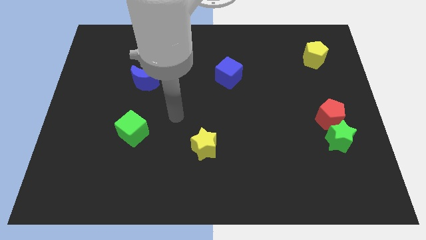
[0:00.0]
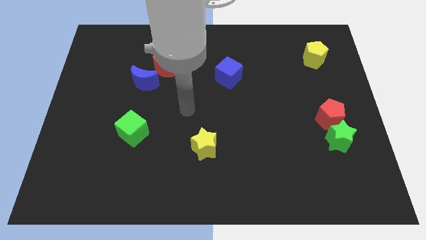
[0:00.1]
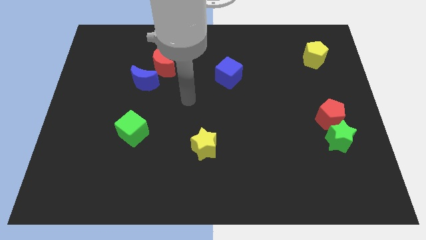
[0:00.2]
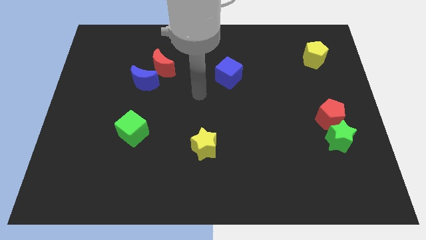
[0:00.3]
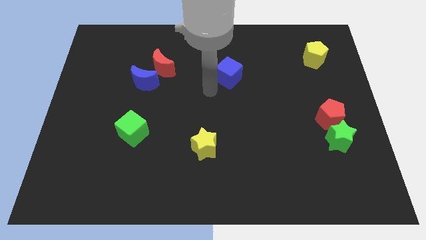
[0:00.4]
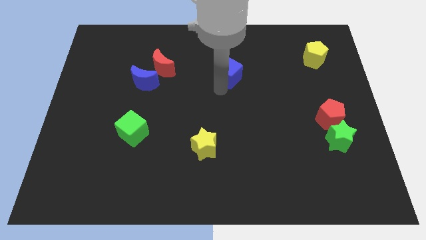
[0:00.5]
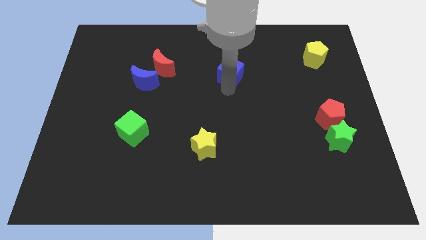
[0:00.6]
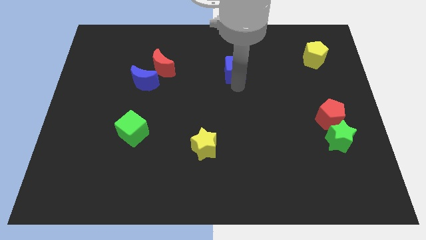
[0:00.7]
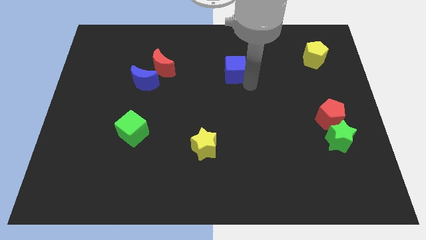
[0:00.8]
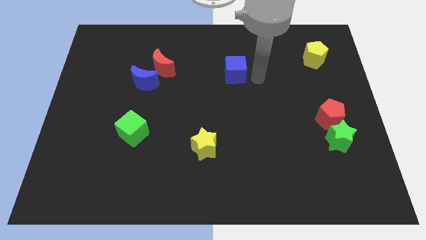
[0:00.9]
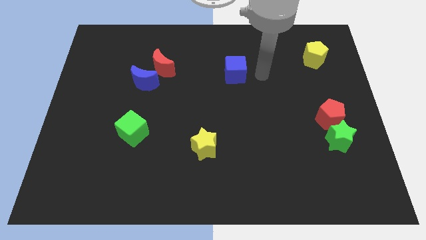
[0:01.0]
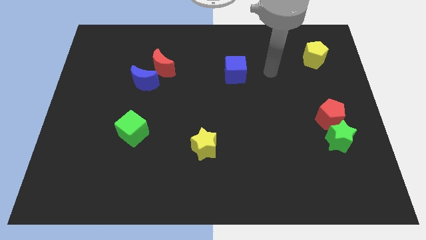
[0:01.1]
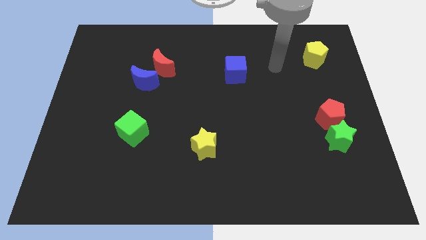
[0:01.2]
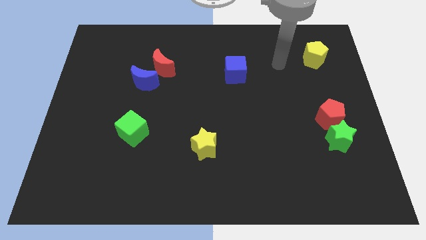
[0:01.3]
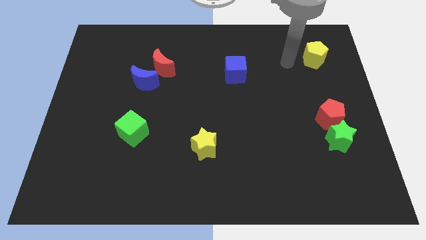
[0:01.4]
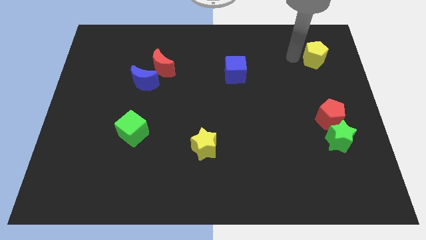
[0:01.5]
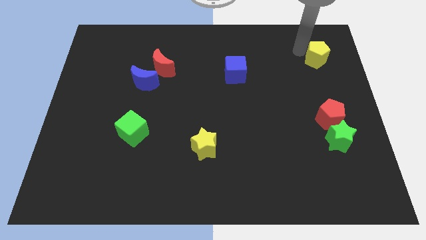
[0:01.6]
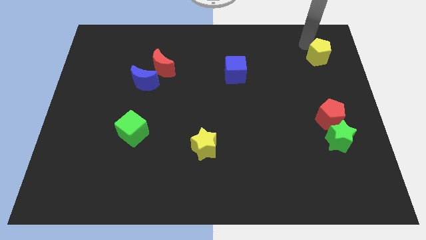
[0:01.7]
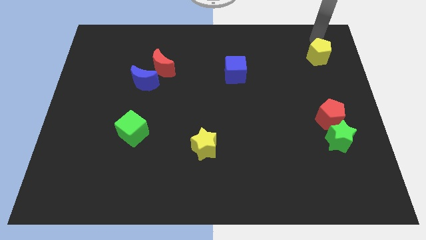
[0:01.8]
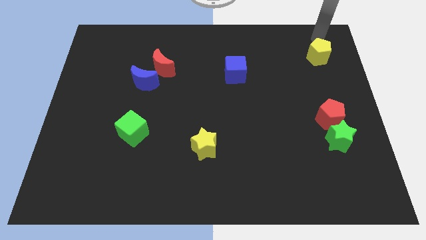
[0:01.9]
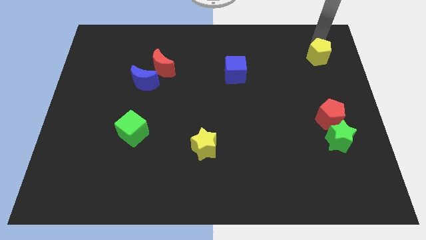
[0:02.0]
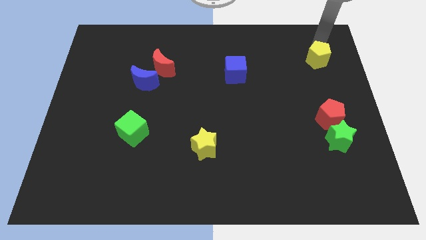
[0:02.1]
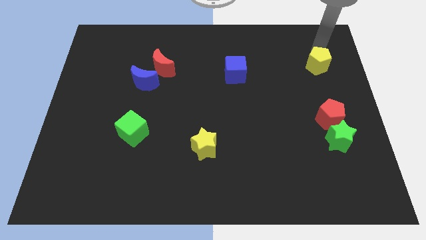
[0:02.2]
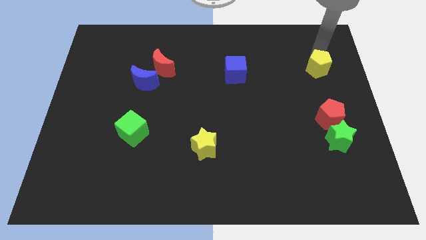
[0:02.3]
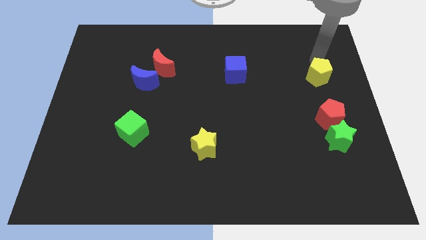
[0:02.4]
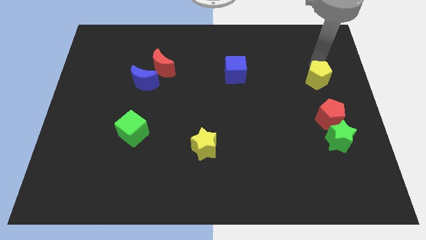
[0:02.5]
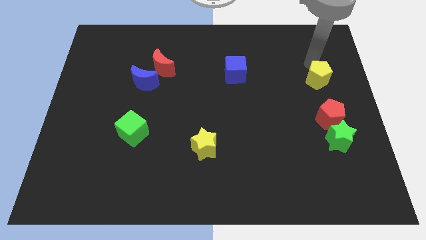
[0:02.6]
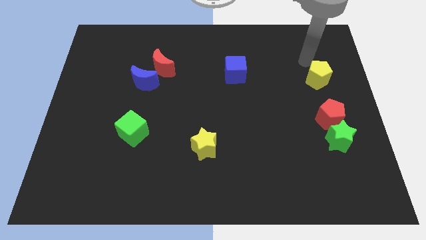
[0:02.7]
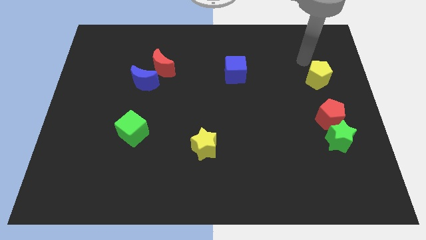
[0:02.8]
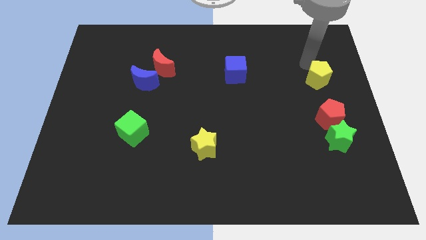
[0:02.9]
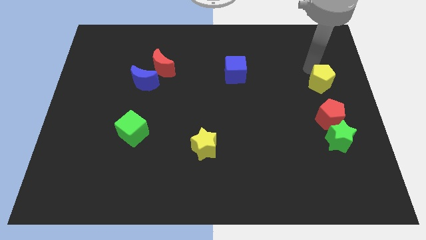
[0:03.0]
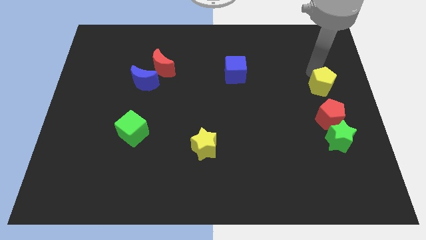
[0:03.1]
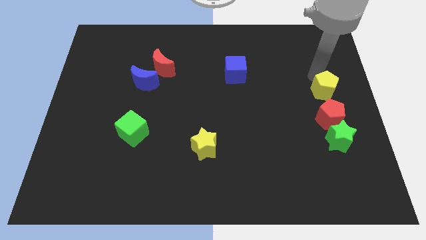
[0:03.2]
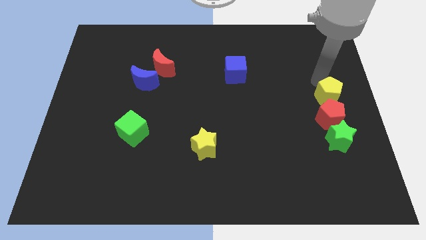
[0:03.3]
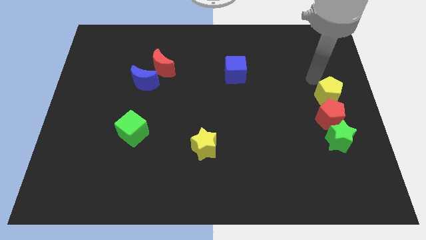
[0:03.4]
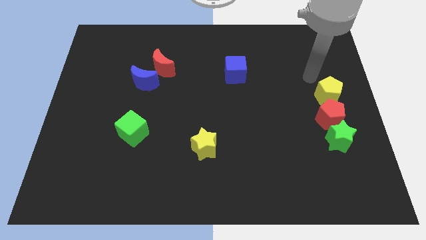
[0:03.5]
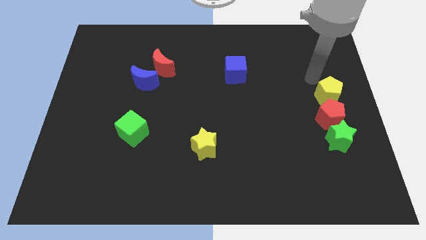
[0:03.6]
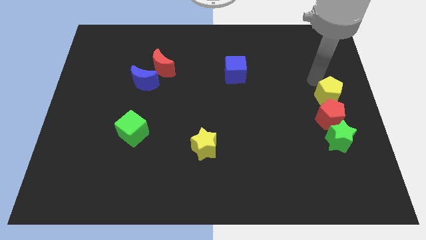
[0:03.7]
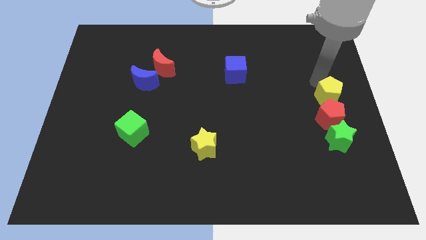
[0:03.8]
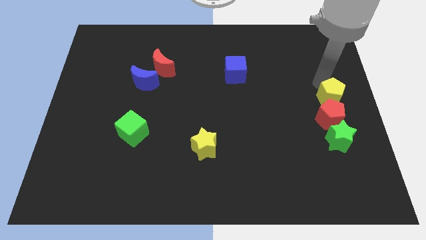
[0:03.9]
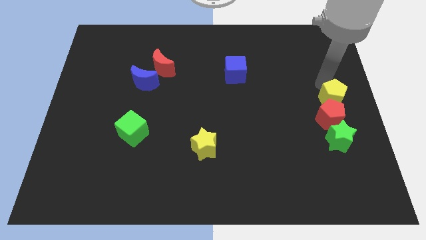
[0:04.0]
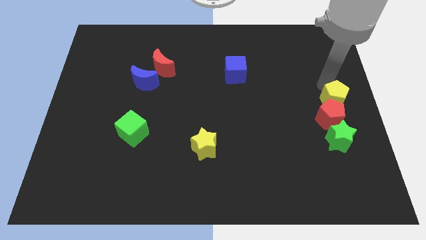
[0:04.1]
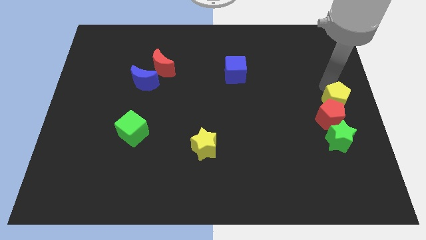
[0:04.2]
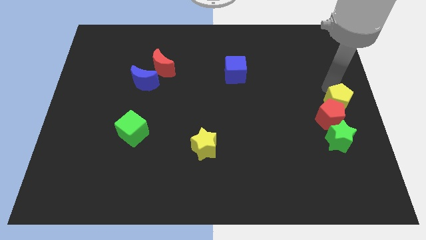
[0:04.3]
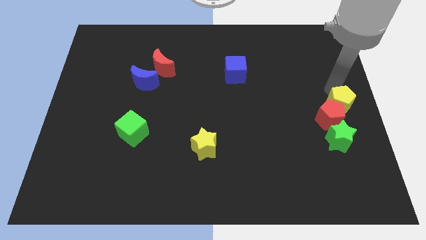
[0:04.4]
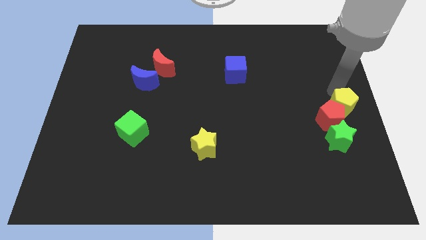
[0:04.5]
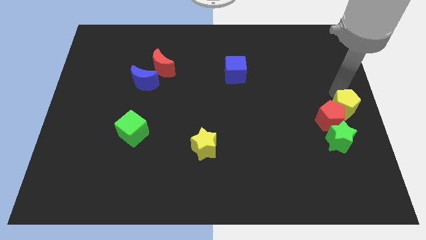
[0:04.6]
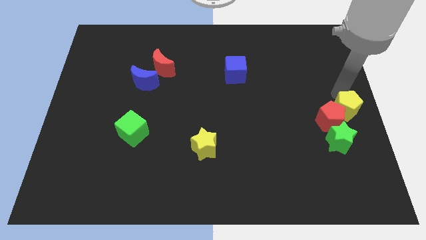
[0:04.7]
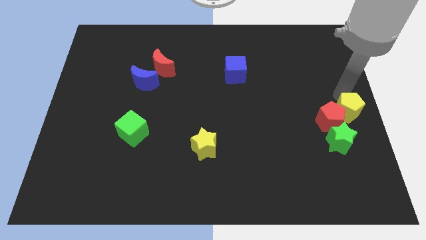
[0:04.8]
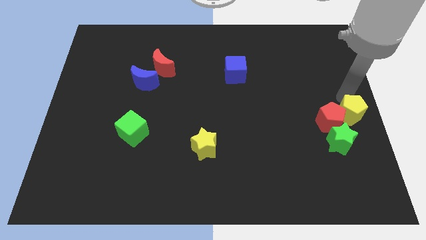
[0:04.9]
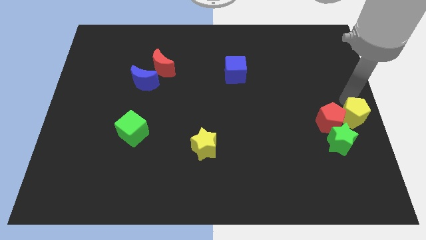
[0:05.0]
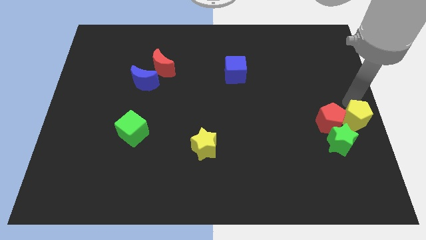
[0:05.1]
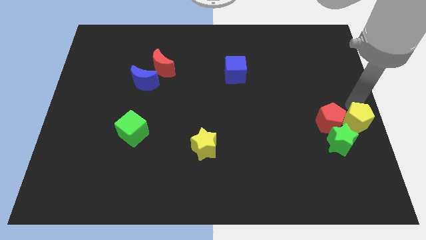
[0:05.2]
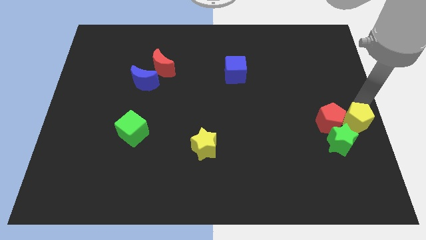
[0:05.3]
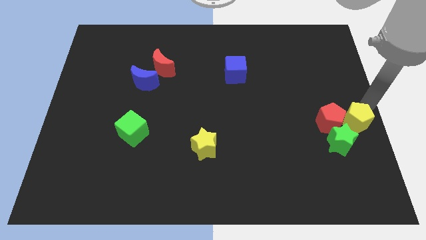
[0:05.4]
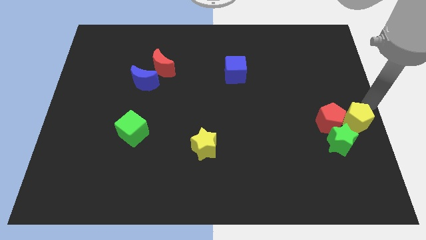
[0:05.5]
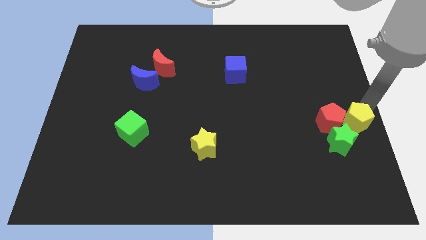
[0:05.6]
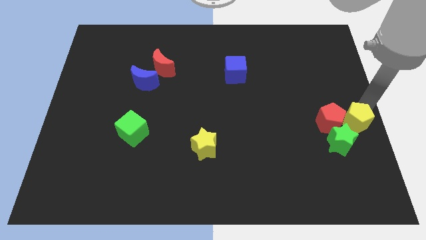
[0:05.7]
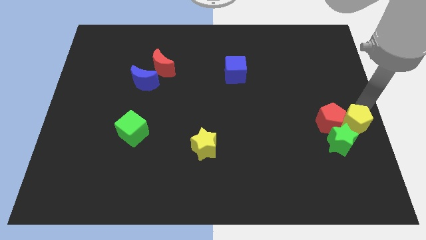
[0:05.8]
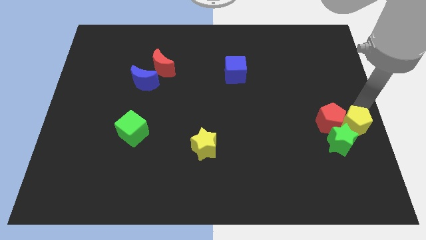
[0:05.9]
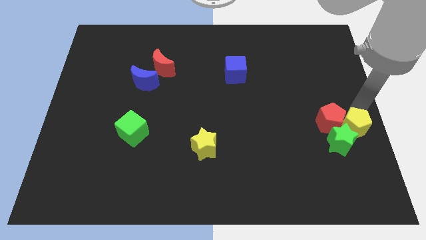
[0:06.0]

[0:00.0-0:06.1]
put the yellow pentagon close to the green star
